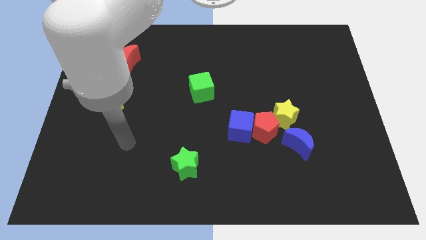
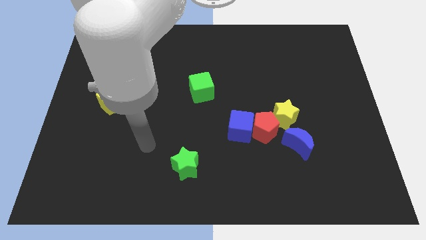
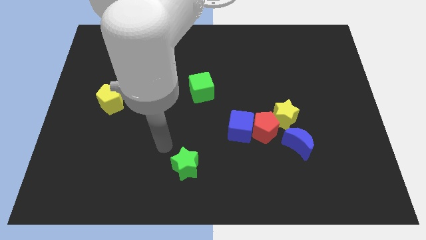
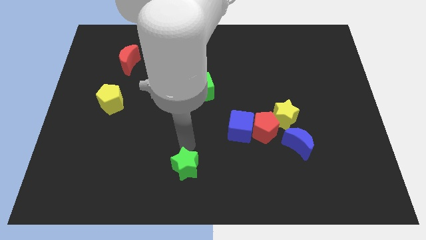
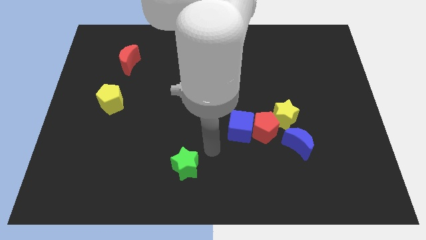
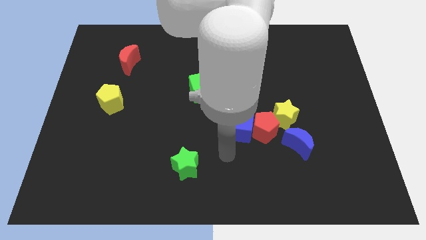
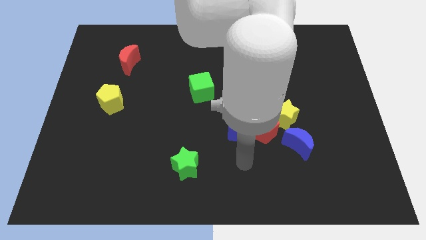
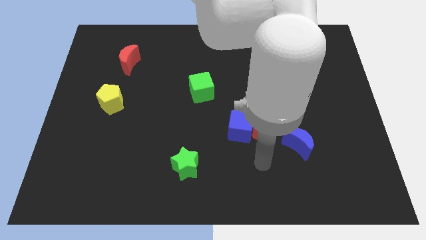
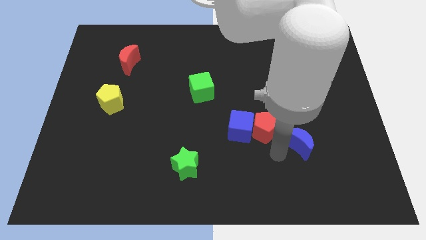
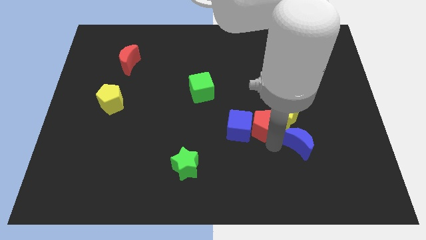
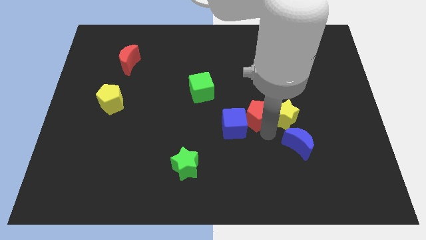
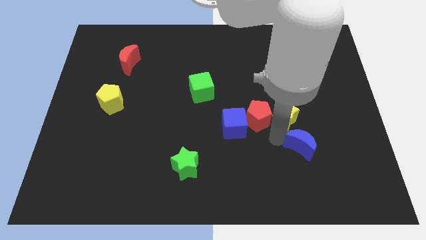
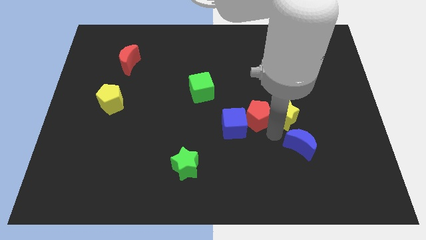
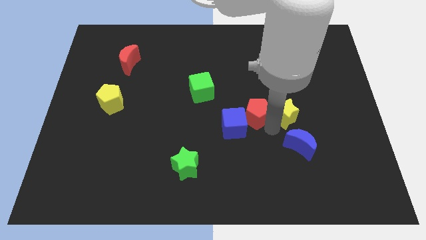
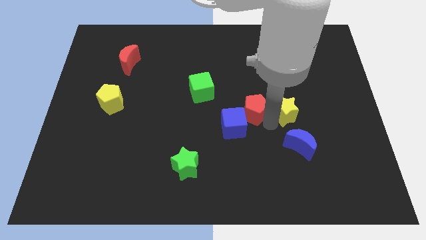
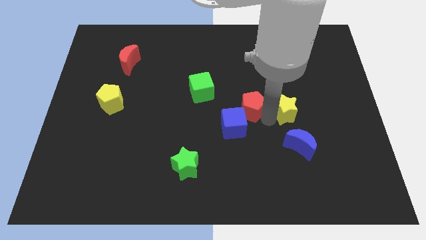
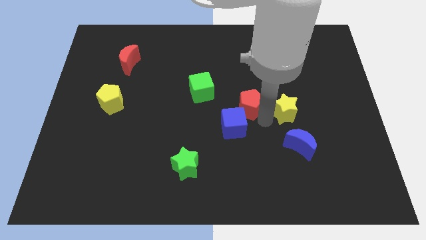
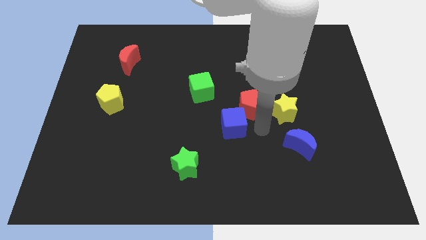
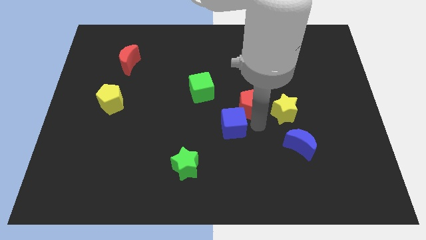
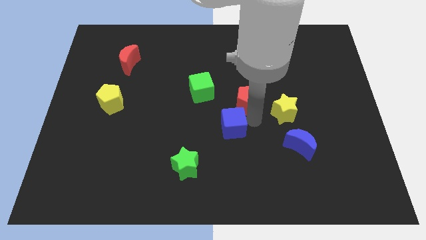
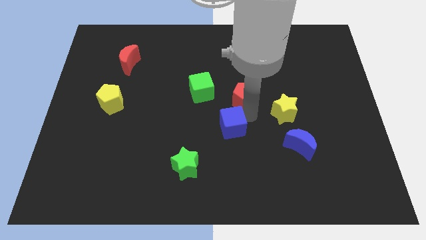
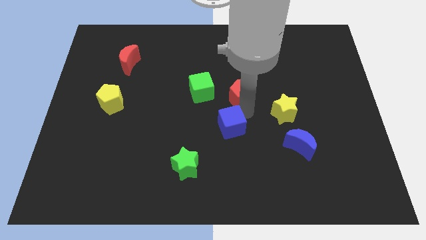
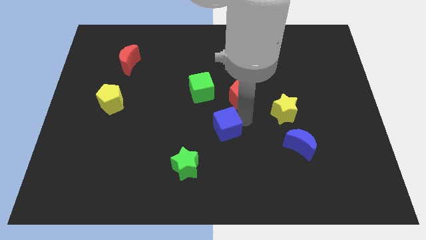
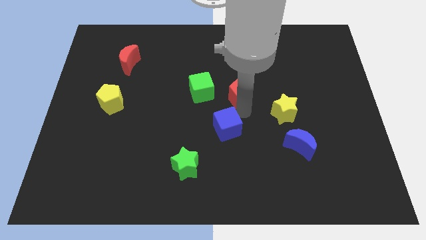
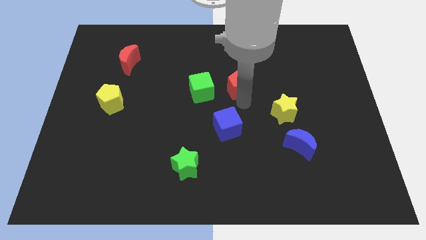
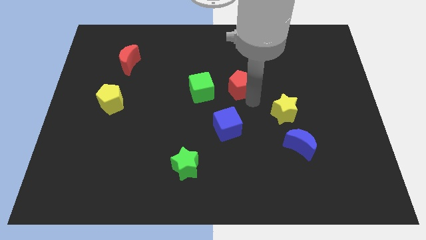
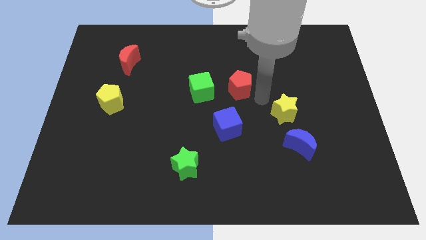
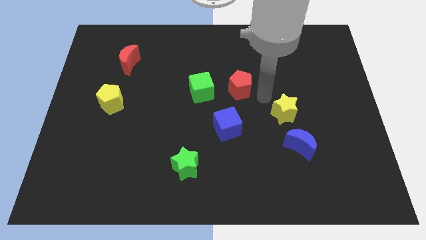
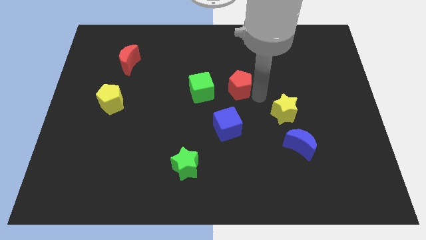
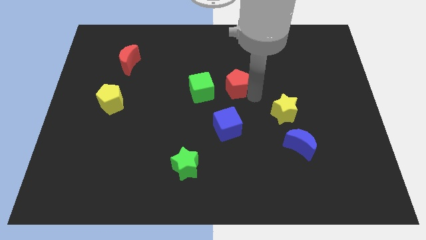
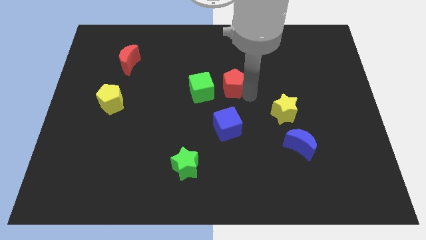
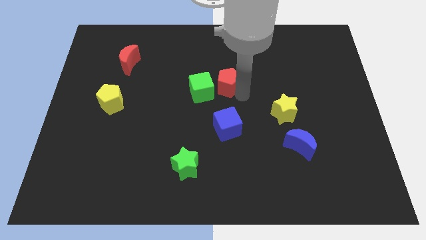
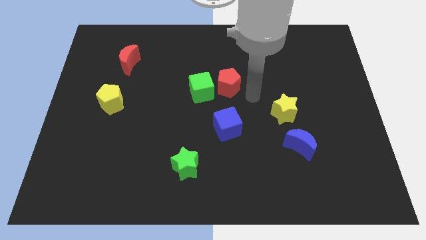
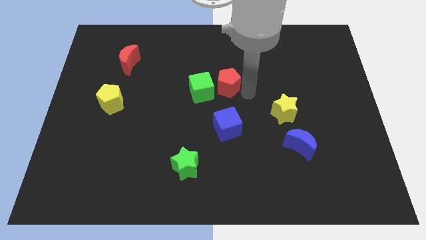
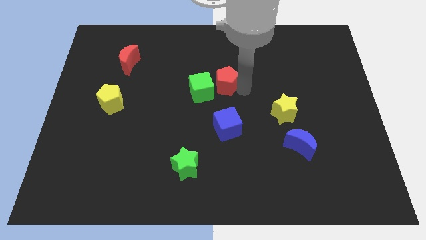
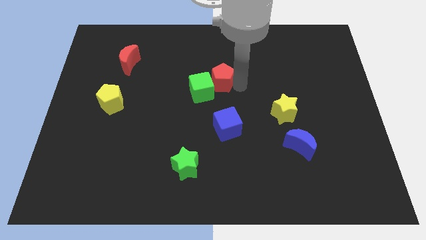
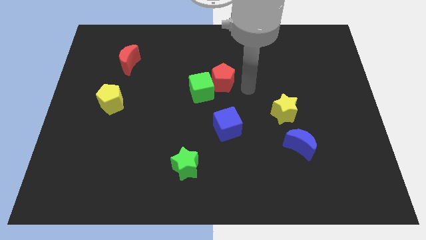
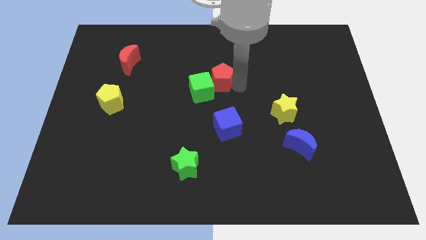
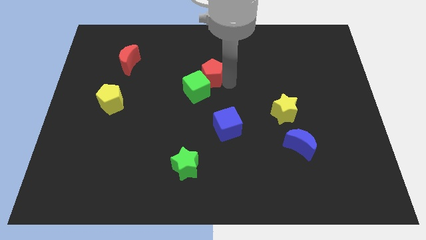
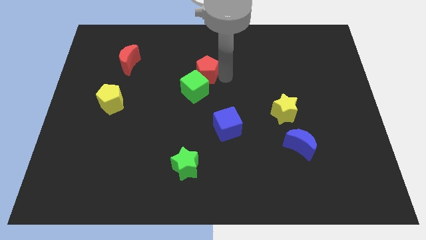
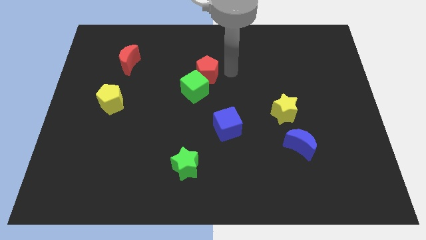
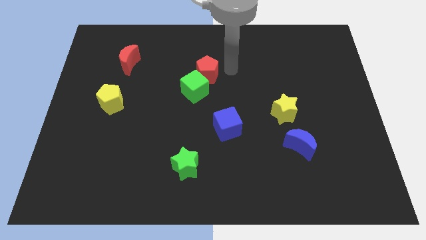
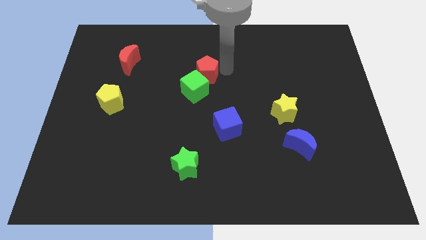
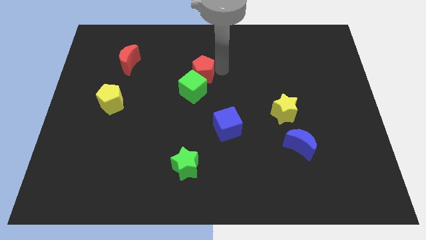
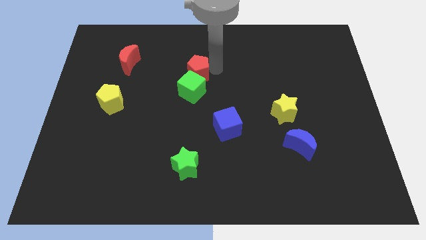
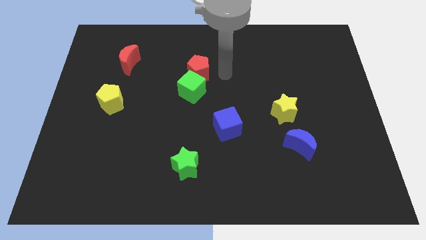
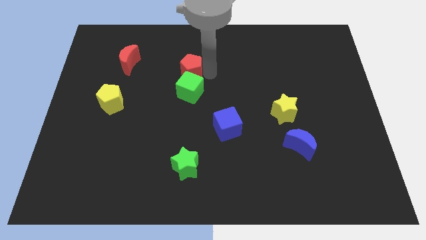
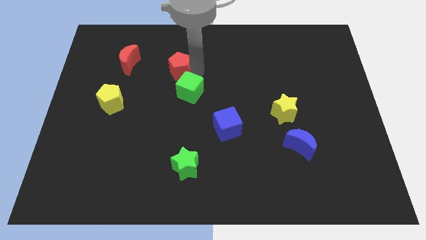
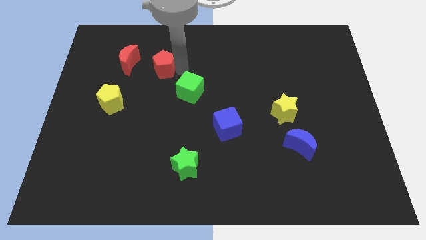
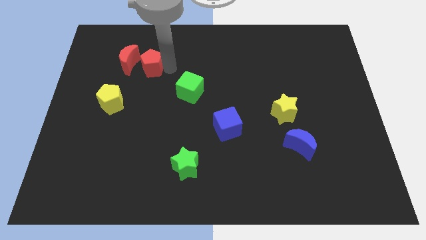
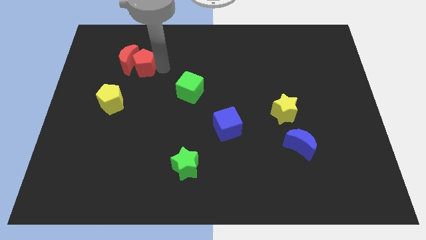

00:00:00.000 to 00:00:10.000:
move the red pentagon towards the red moon

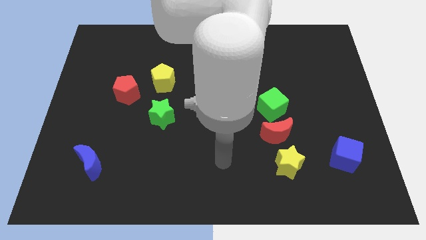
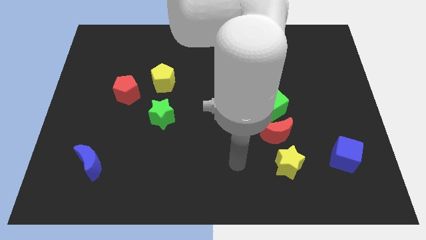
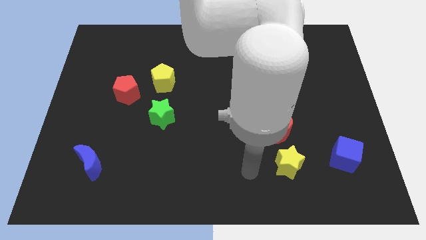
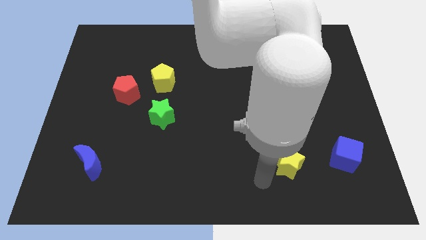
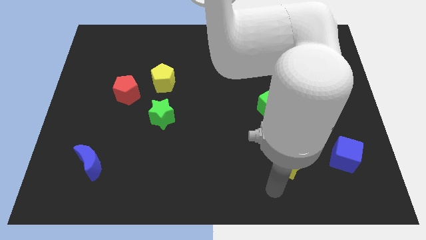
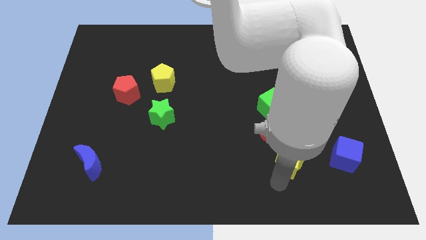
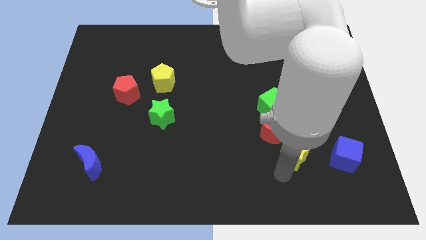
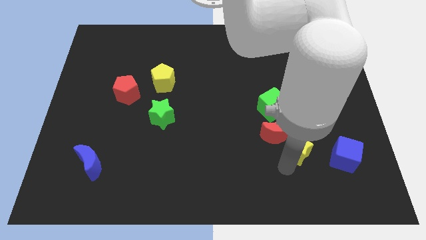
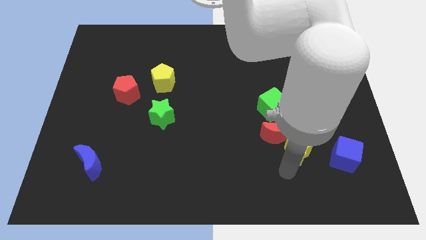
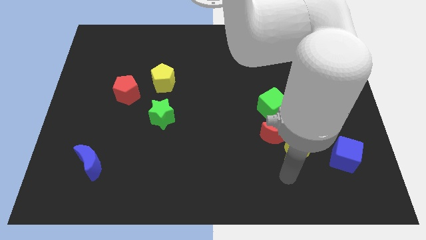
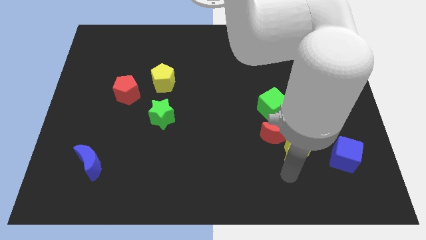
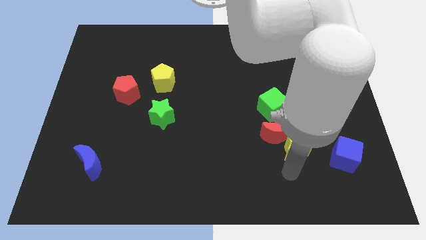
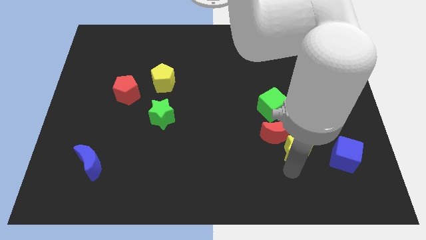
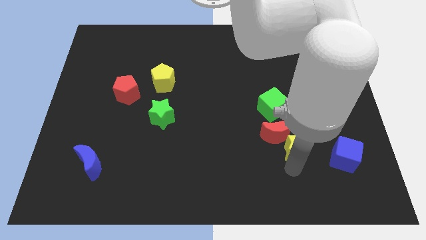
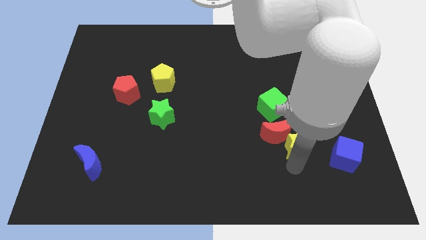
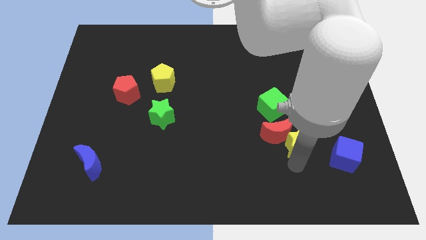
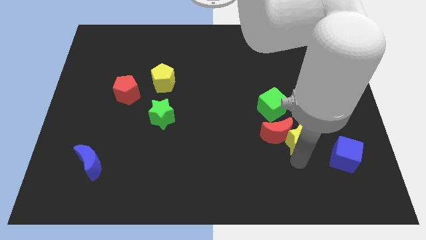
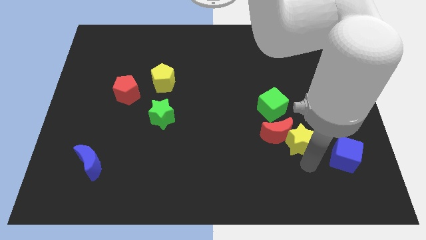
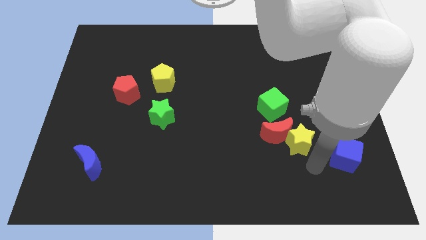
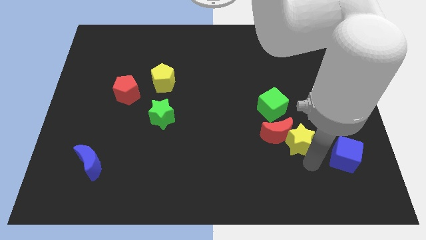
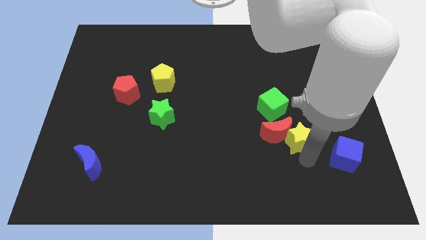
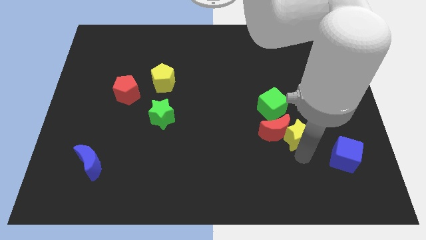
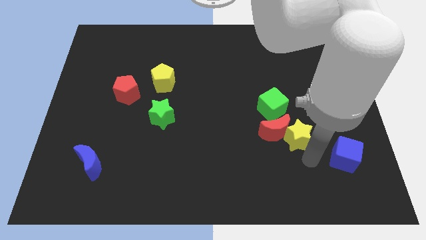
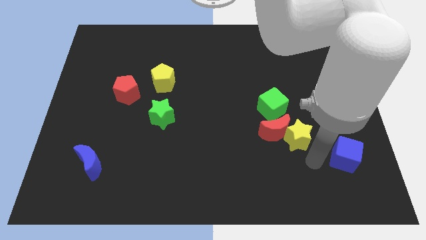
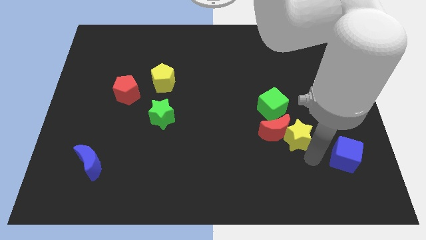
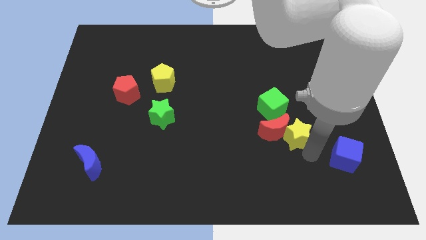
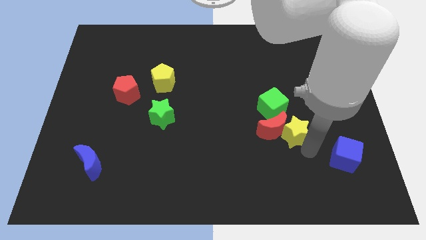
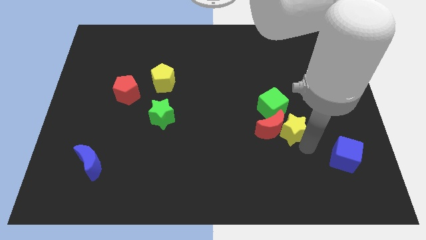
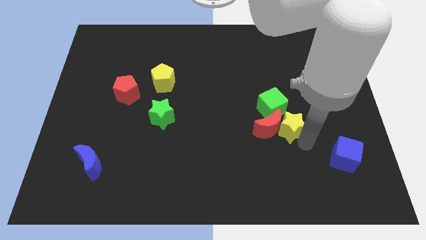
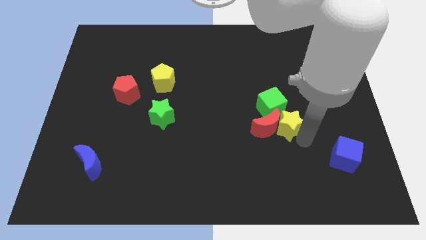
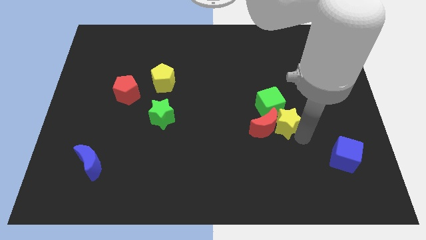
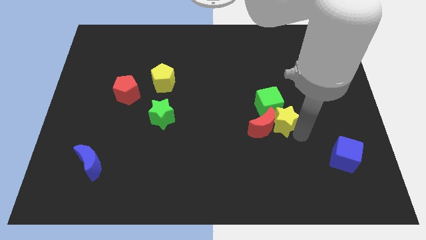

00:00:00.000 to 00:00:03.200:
slide the yellow star close to the green cube

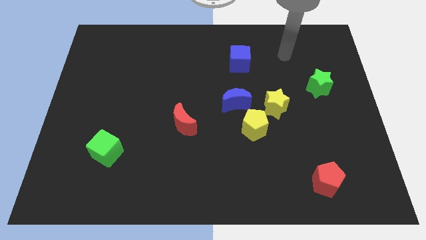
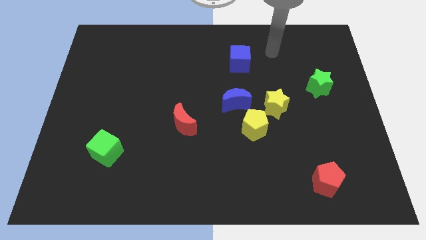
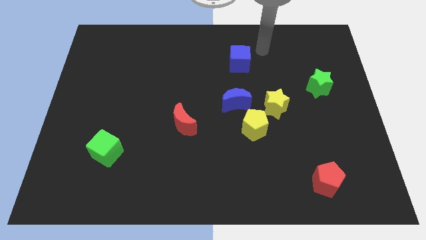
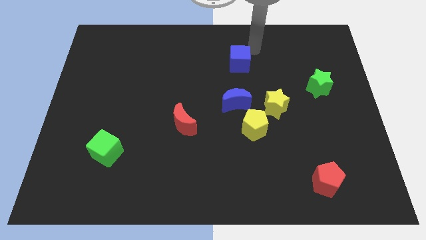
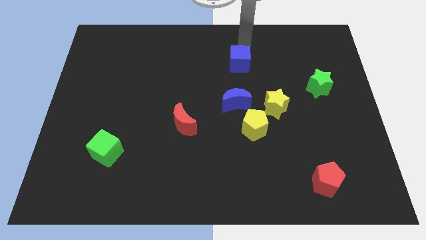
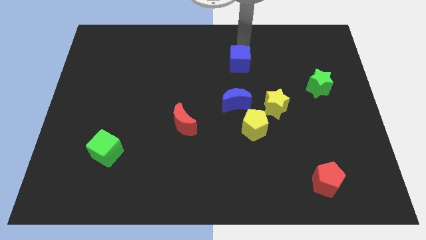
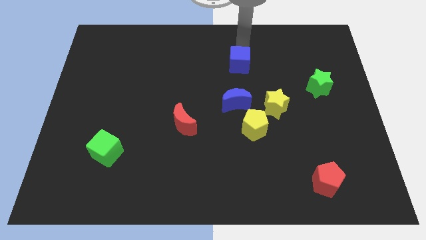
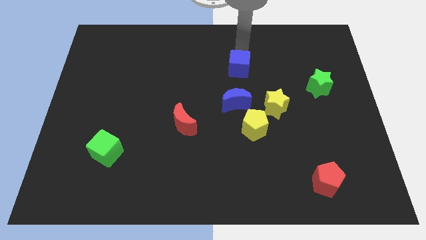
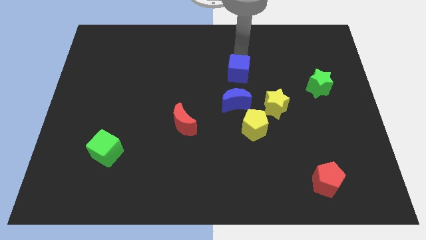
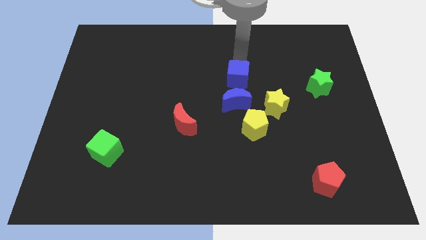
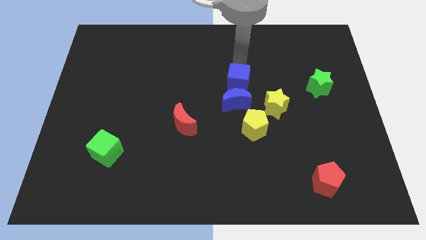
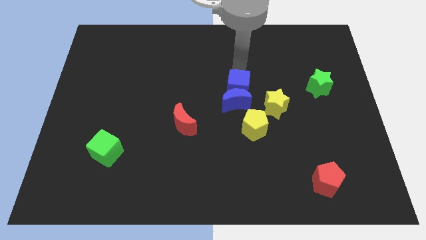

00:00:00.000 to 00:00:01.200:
put the blue cube towards the blue moon
